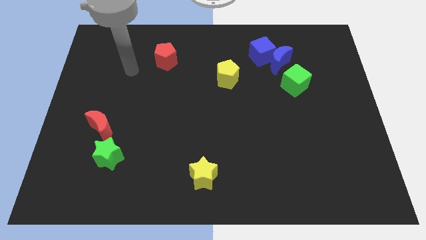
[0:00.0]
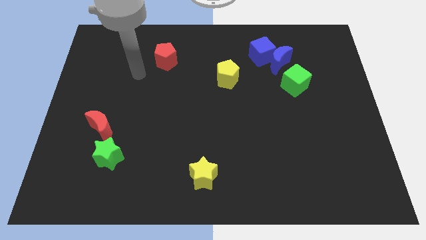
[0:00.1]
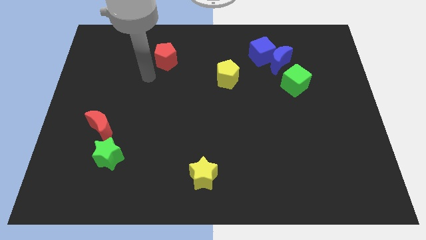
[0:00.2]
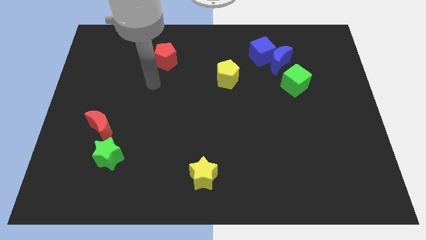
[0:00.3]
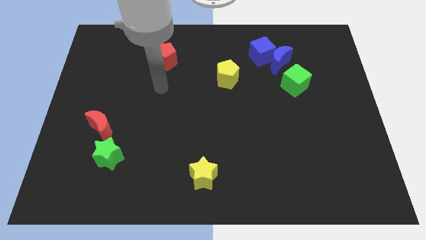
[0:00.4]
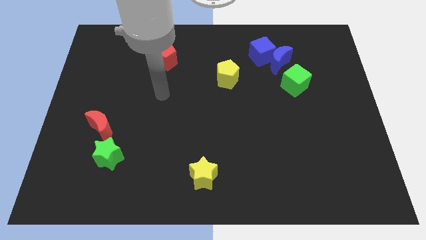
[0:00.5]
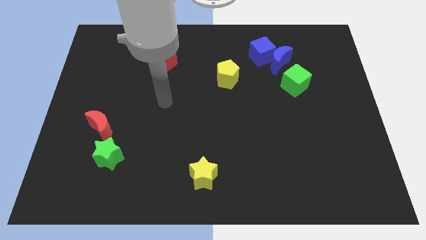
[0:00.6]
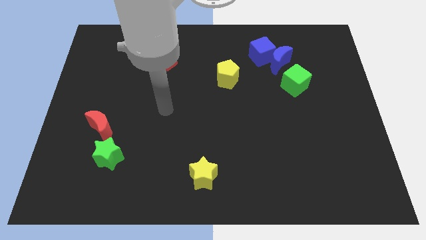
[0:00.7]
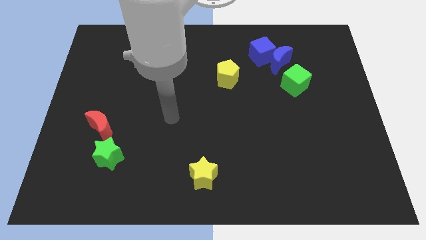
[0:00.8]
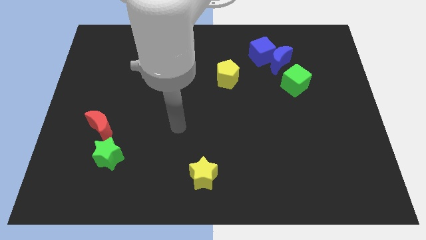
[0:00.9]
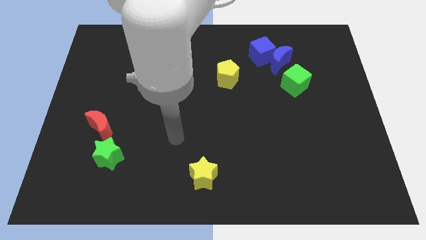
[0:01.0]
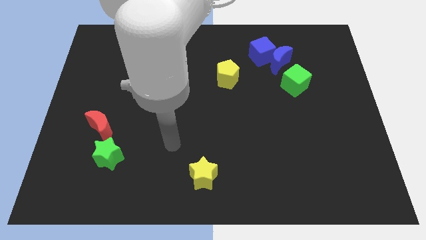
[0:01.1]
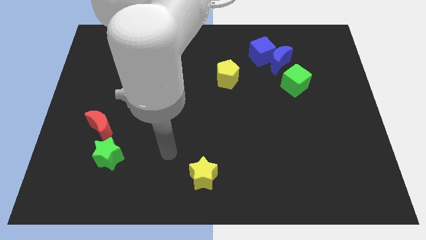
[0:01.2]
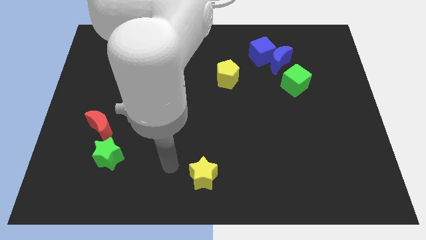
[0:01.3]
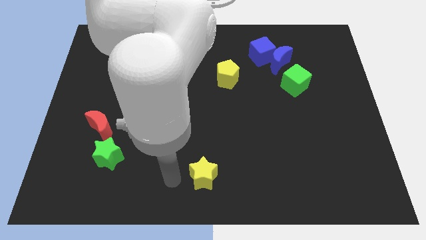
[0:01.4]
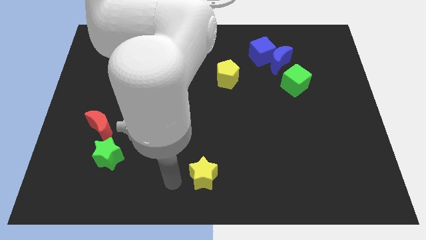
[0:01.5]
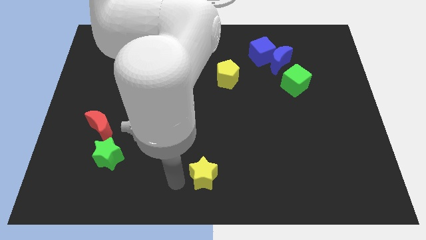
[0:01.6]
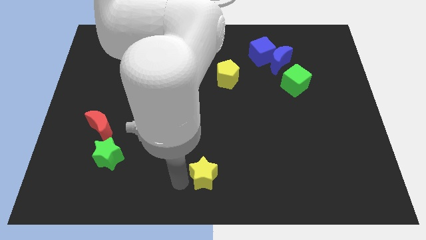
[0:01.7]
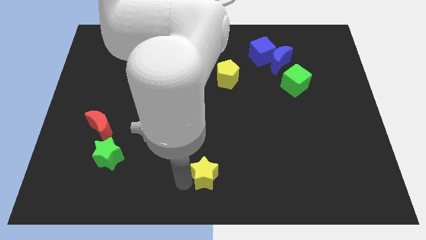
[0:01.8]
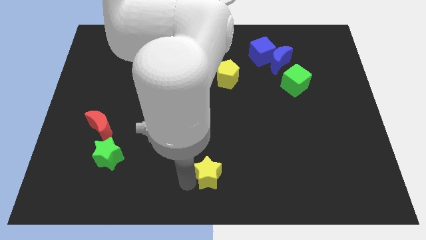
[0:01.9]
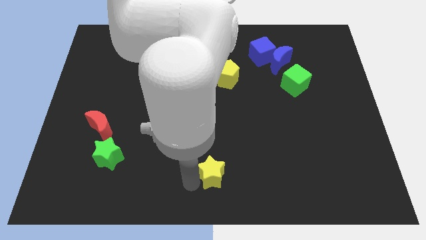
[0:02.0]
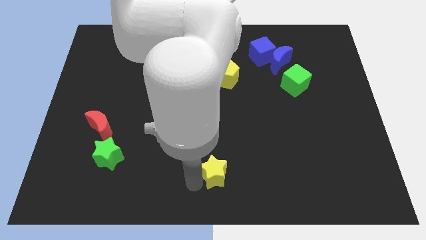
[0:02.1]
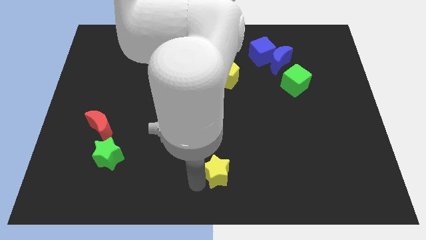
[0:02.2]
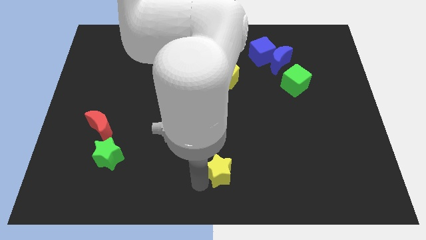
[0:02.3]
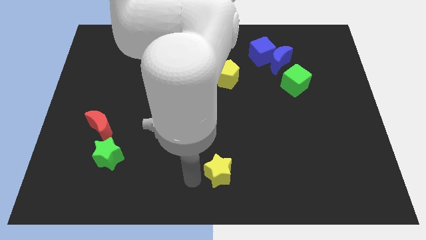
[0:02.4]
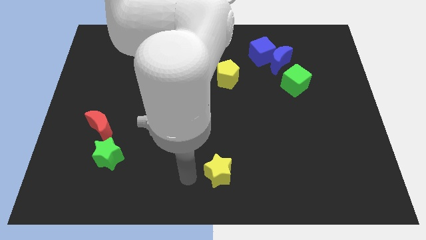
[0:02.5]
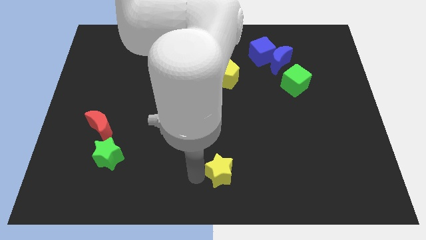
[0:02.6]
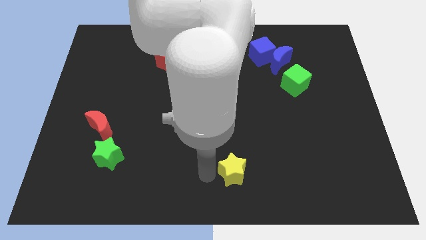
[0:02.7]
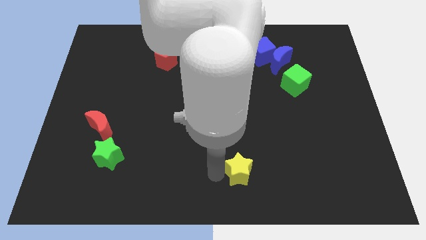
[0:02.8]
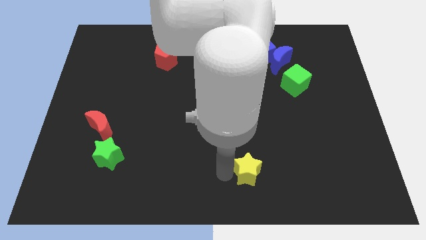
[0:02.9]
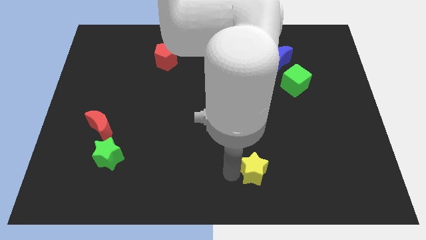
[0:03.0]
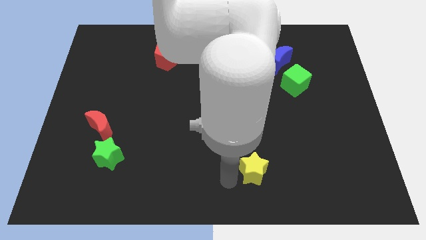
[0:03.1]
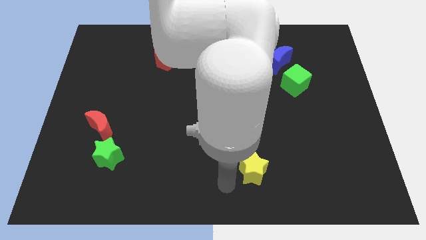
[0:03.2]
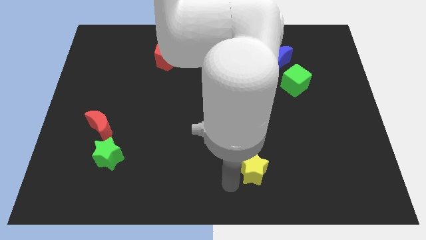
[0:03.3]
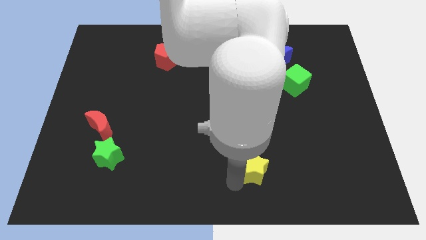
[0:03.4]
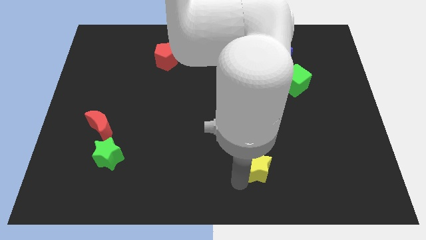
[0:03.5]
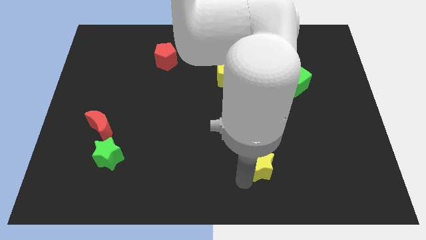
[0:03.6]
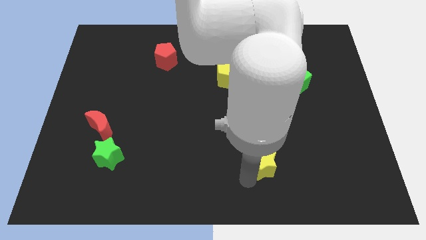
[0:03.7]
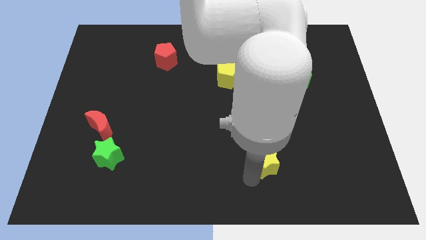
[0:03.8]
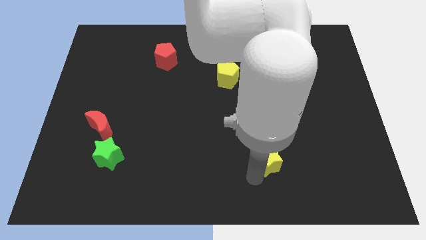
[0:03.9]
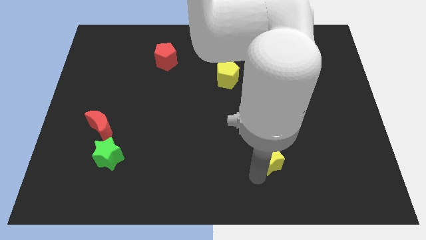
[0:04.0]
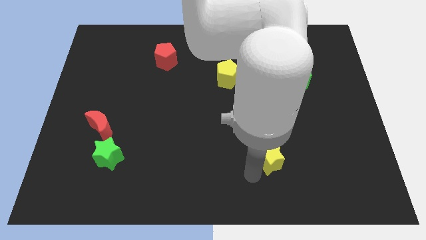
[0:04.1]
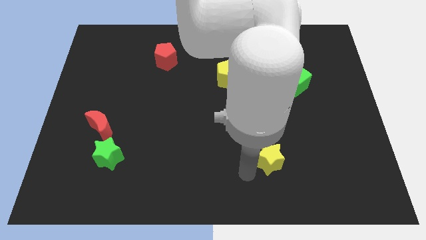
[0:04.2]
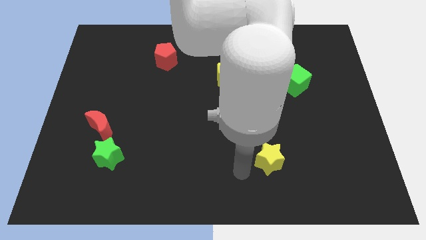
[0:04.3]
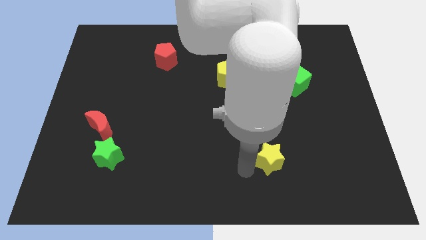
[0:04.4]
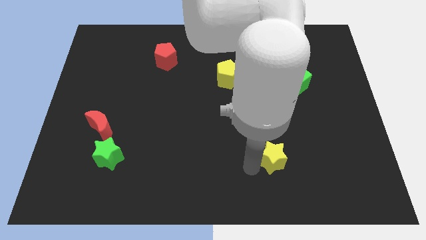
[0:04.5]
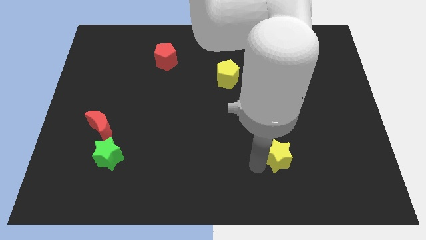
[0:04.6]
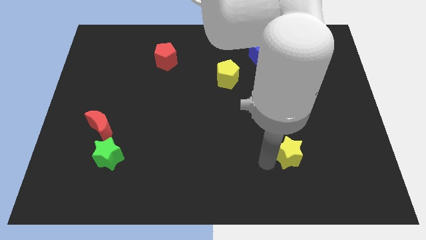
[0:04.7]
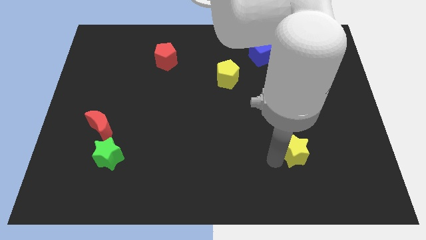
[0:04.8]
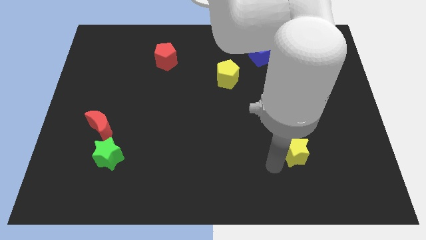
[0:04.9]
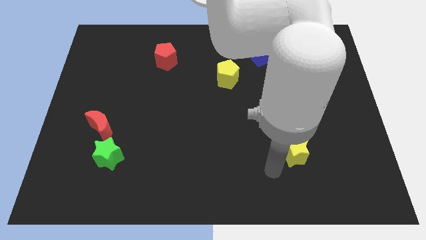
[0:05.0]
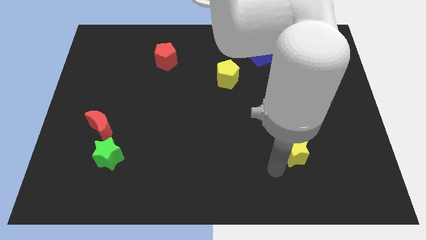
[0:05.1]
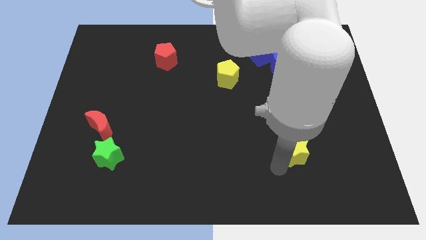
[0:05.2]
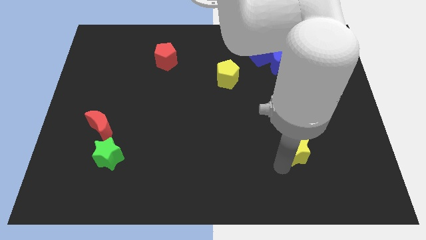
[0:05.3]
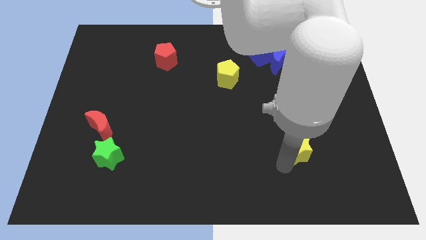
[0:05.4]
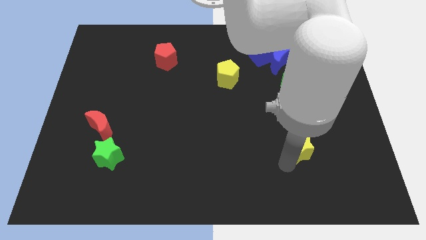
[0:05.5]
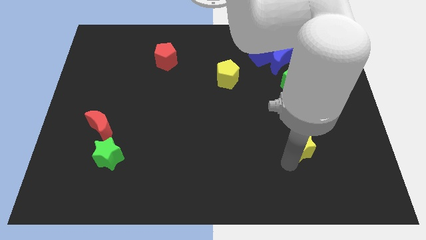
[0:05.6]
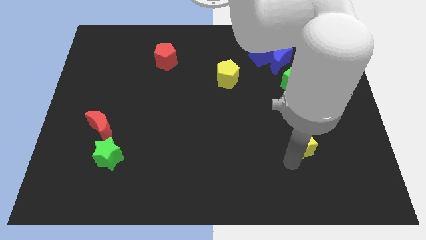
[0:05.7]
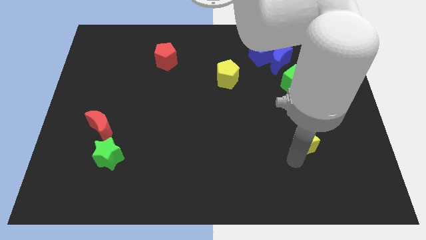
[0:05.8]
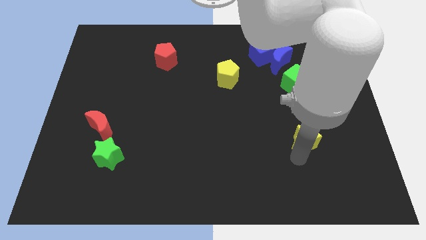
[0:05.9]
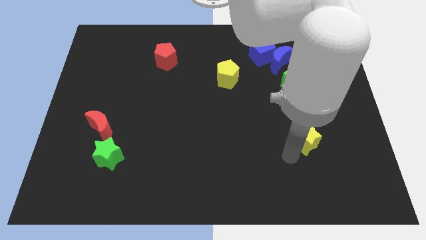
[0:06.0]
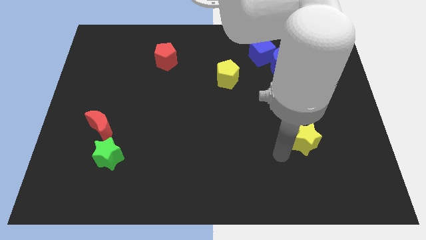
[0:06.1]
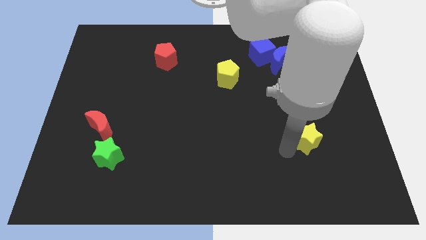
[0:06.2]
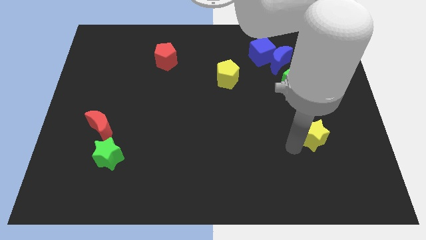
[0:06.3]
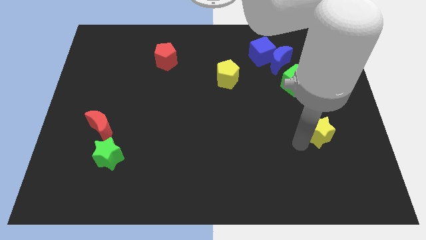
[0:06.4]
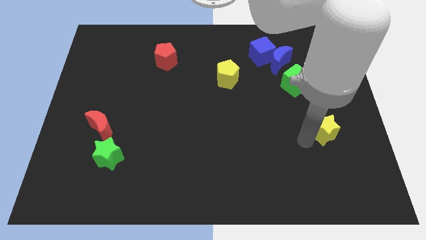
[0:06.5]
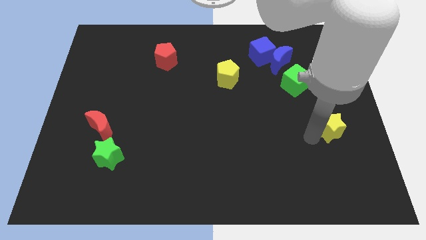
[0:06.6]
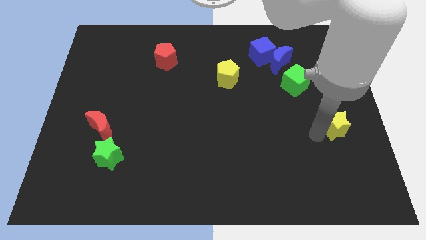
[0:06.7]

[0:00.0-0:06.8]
slide the yellow star to the right side of the board

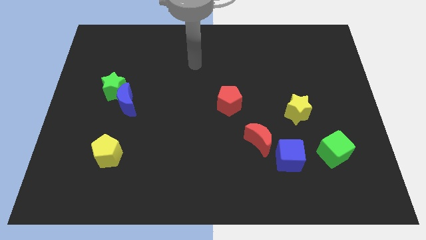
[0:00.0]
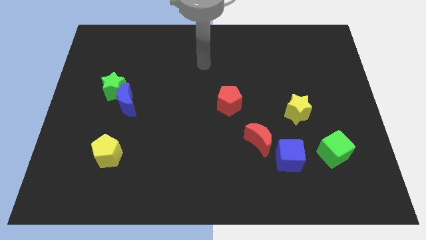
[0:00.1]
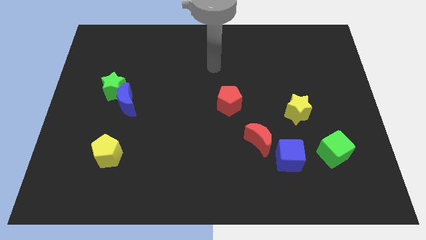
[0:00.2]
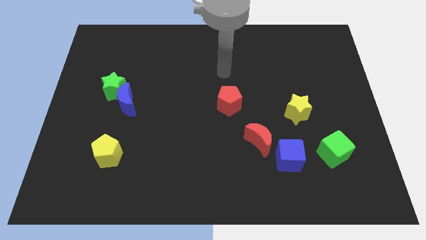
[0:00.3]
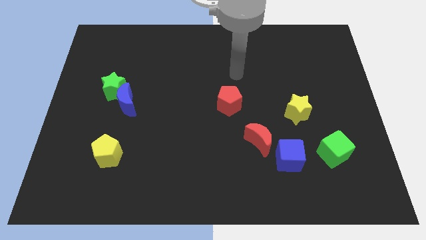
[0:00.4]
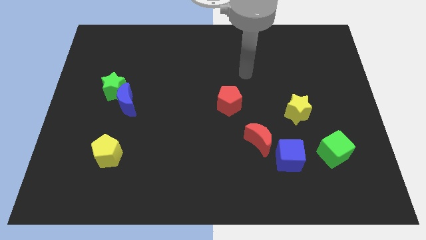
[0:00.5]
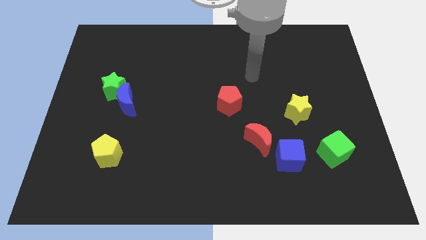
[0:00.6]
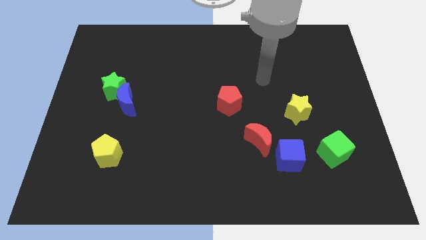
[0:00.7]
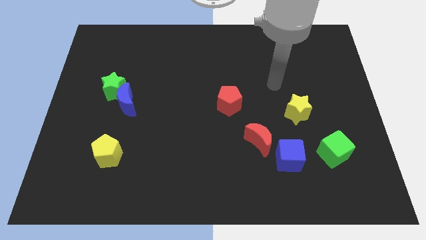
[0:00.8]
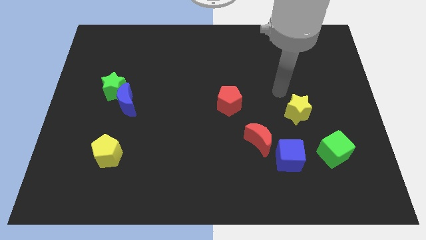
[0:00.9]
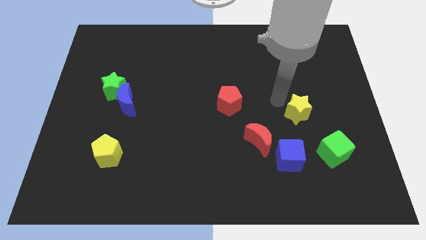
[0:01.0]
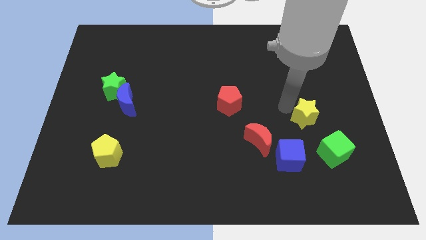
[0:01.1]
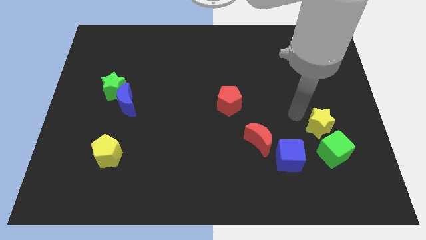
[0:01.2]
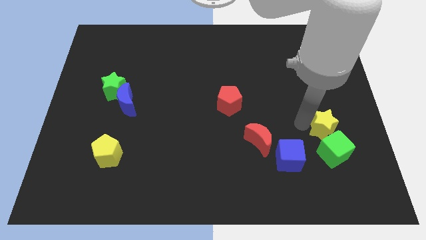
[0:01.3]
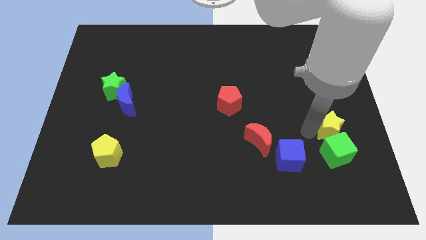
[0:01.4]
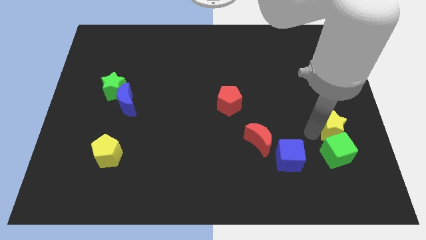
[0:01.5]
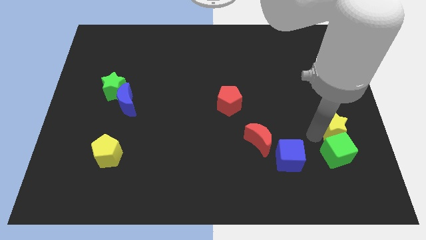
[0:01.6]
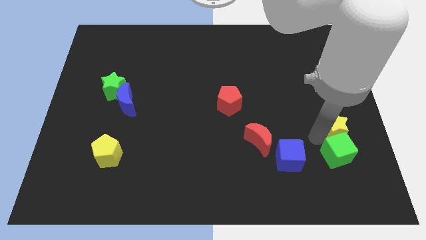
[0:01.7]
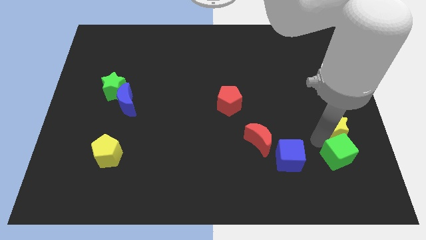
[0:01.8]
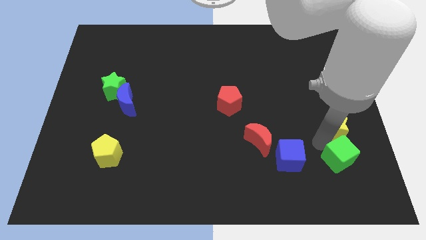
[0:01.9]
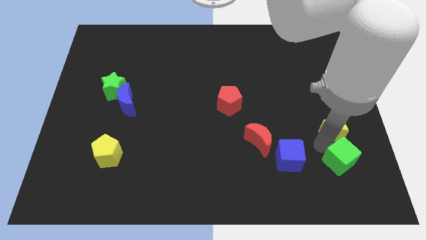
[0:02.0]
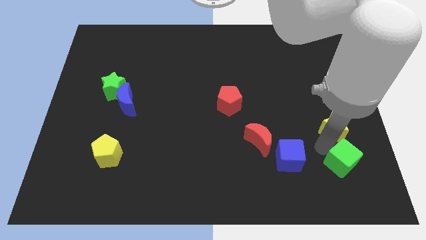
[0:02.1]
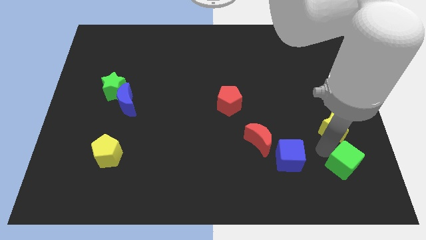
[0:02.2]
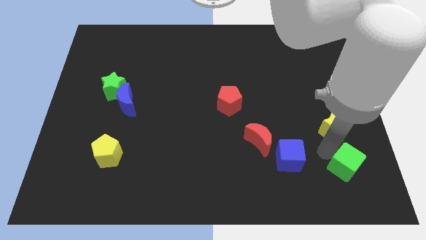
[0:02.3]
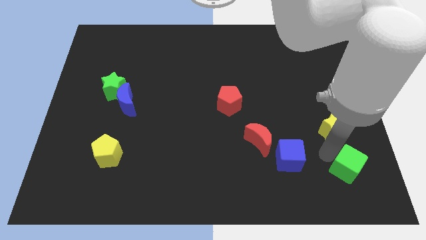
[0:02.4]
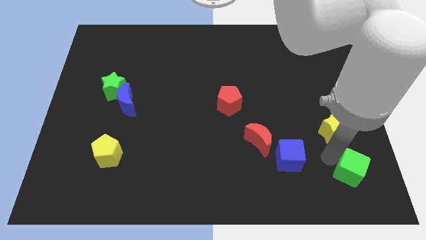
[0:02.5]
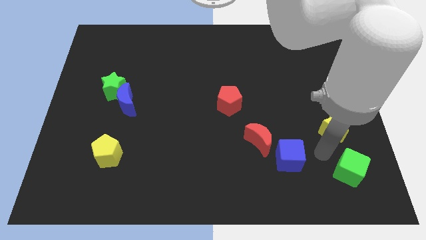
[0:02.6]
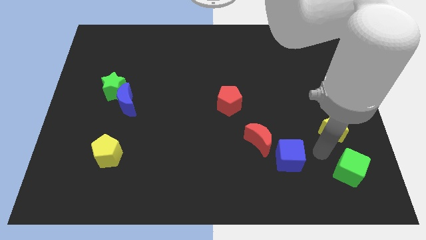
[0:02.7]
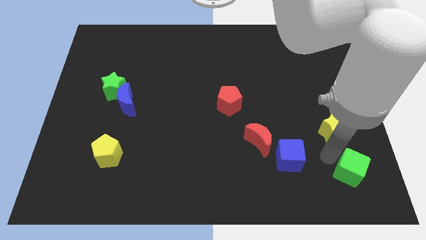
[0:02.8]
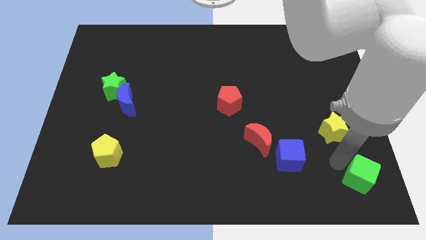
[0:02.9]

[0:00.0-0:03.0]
slide the green cube to the bottom right
